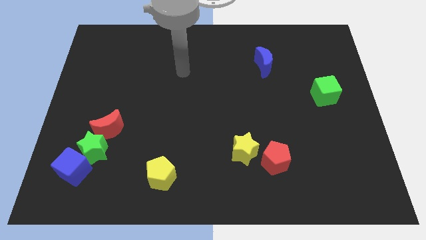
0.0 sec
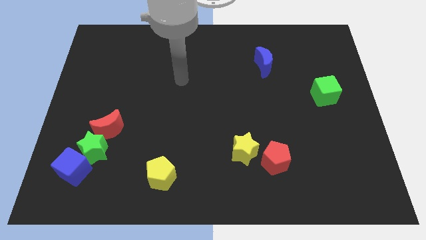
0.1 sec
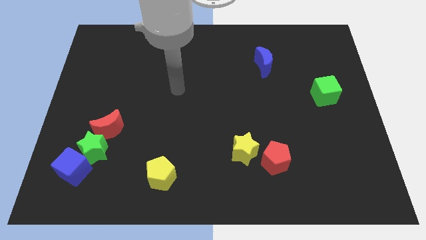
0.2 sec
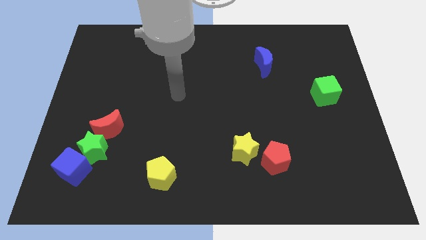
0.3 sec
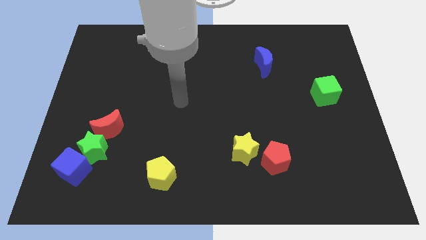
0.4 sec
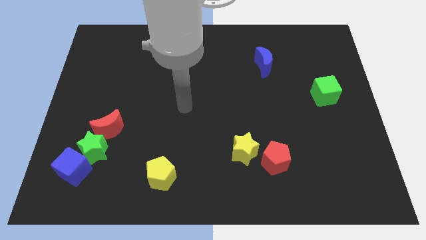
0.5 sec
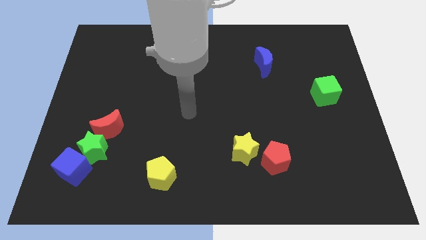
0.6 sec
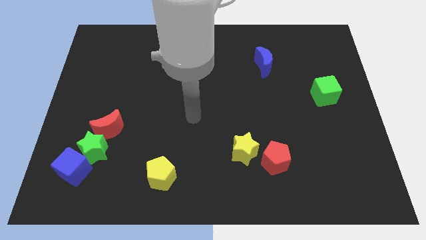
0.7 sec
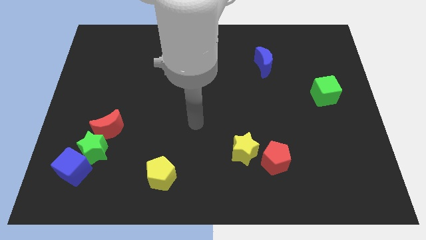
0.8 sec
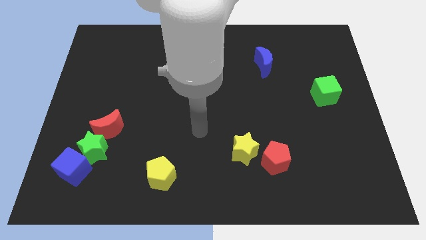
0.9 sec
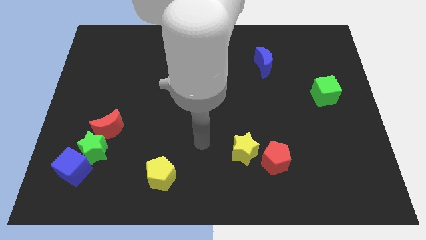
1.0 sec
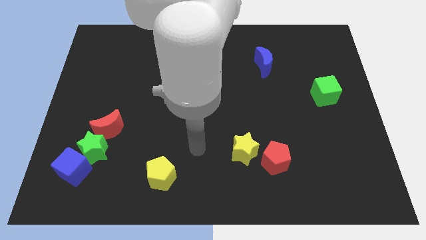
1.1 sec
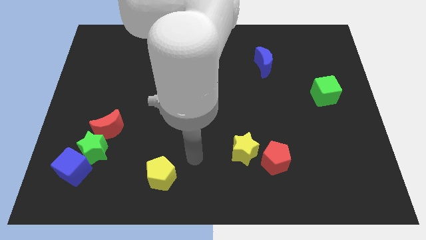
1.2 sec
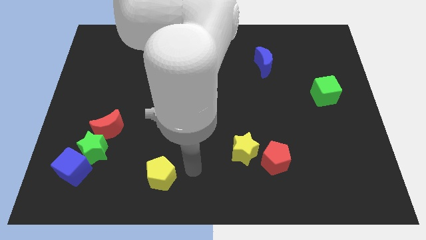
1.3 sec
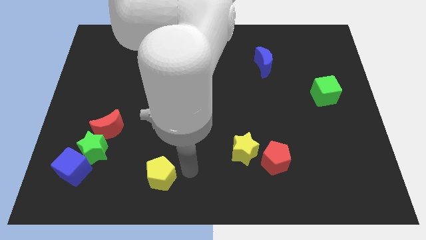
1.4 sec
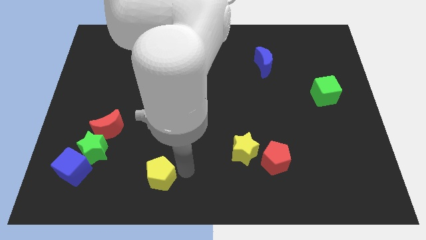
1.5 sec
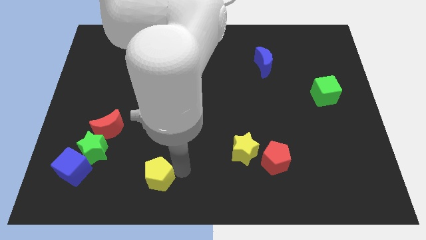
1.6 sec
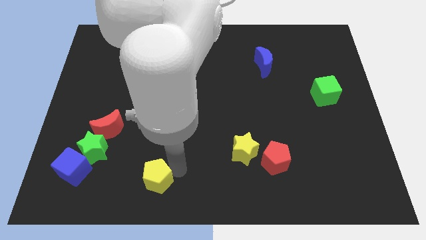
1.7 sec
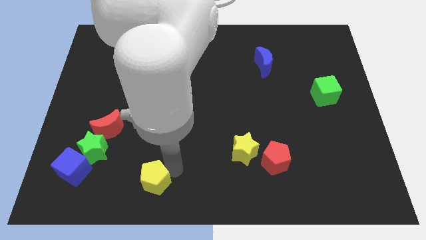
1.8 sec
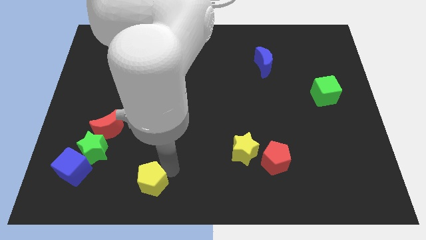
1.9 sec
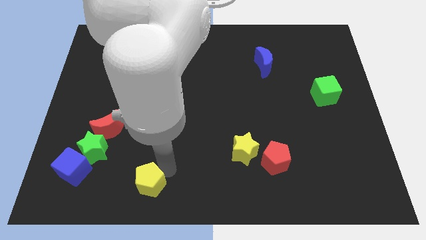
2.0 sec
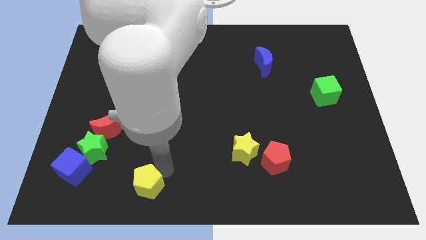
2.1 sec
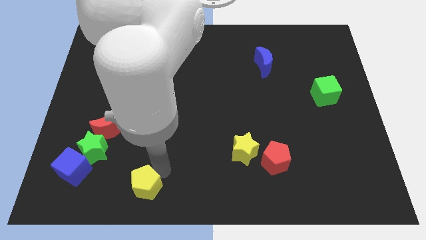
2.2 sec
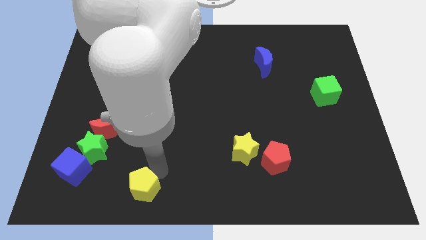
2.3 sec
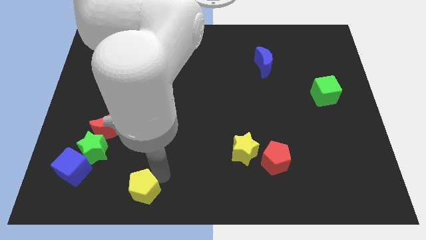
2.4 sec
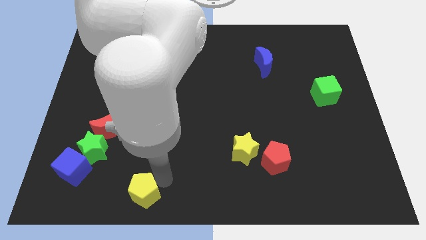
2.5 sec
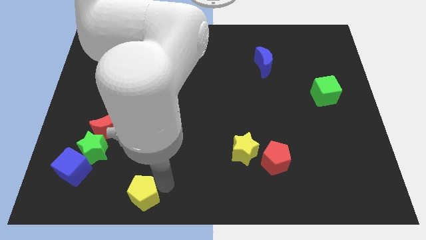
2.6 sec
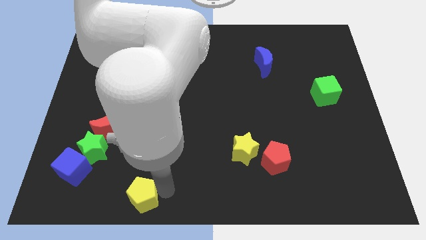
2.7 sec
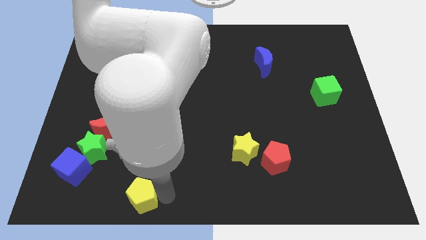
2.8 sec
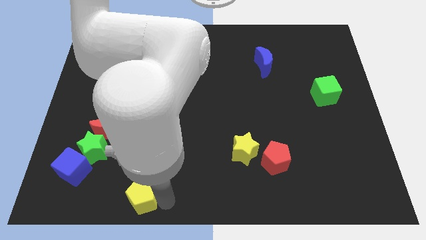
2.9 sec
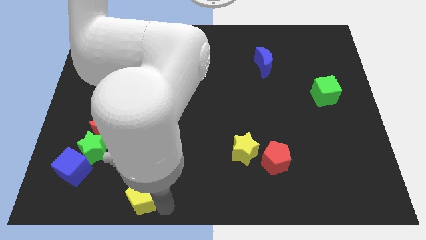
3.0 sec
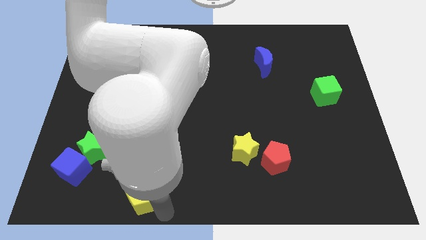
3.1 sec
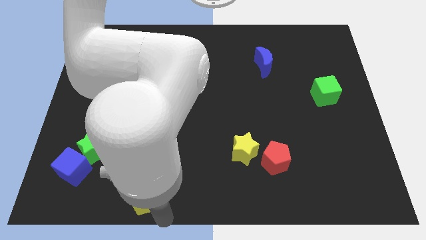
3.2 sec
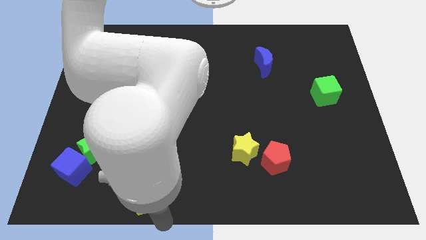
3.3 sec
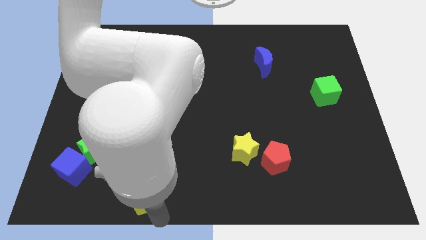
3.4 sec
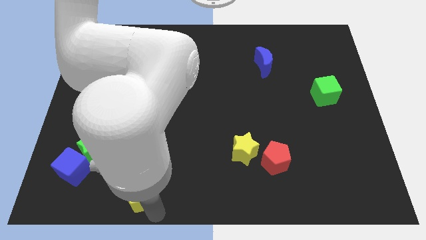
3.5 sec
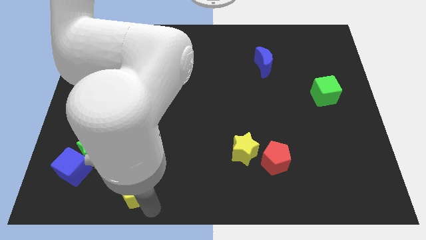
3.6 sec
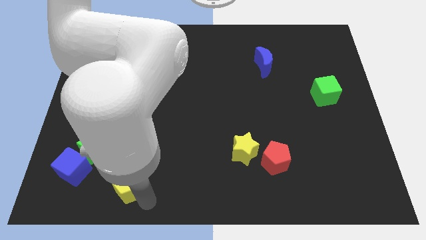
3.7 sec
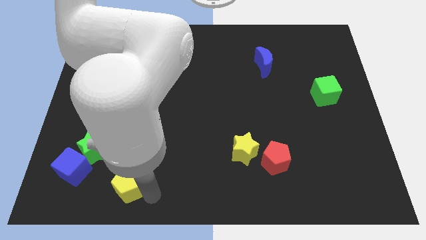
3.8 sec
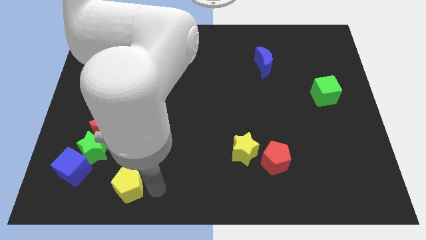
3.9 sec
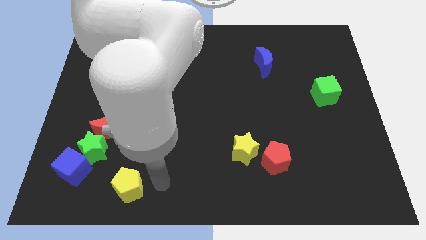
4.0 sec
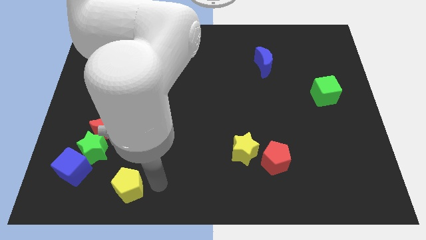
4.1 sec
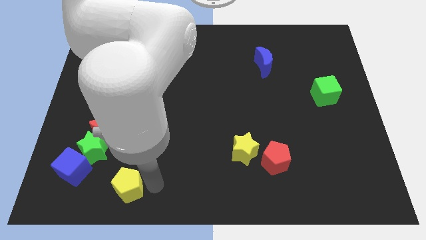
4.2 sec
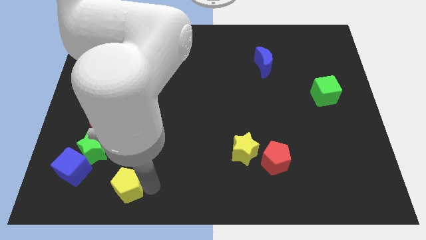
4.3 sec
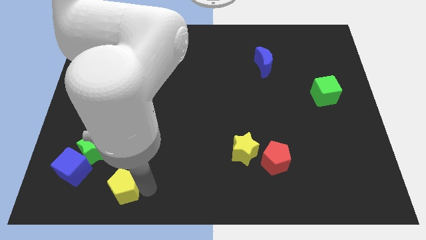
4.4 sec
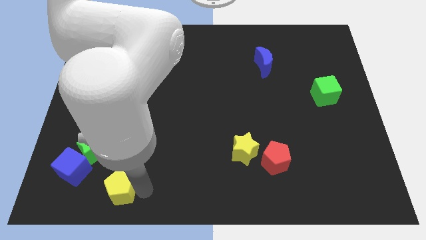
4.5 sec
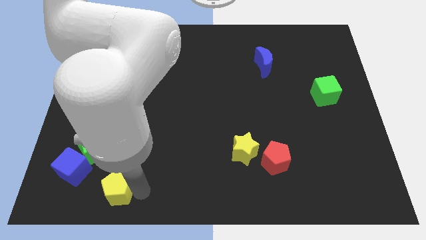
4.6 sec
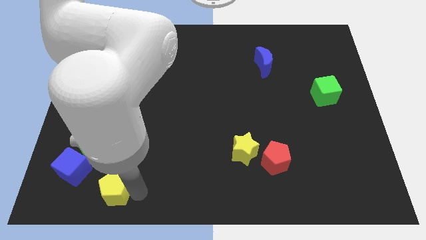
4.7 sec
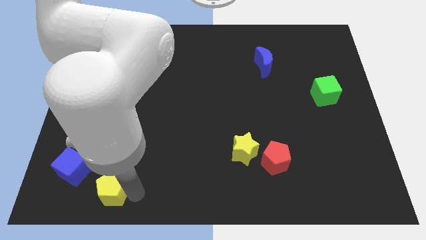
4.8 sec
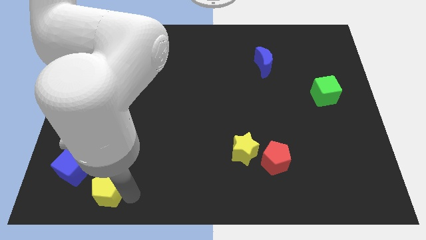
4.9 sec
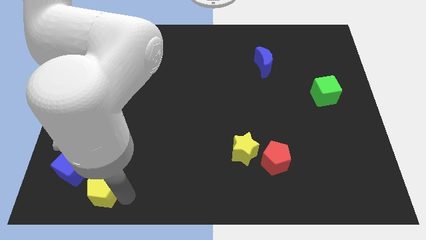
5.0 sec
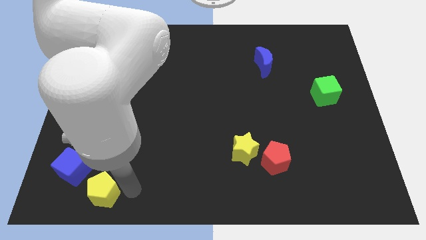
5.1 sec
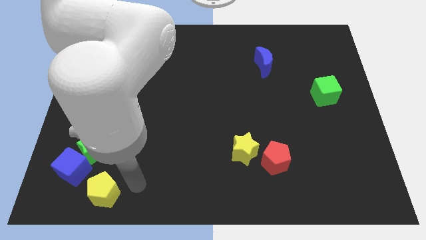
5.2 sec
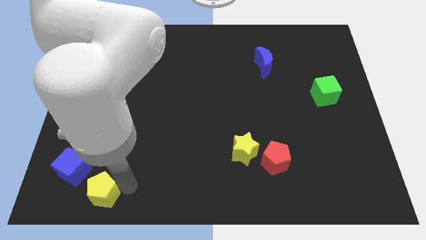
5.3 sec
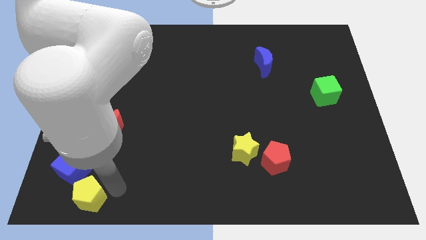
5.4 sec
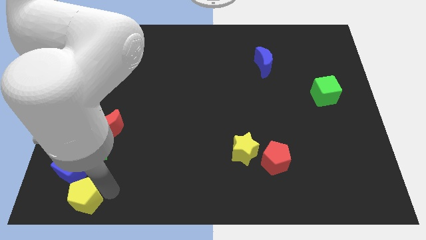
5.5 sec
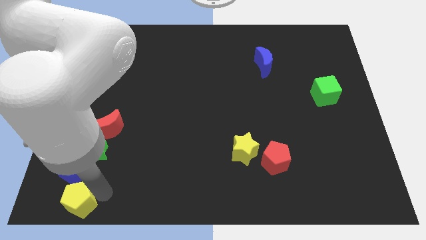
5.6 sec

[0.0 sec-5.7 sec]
slide the yellow pentagon to the bottom left corner
